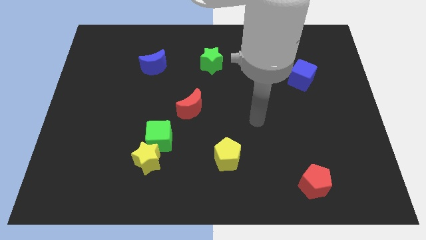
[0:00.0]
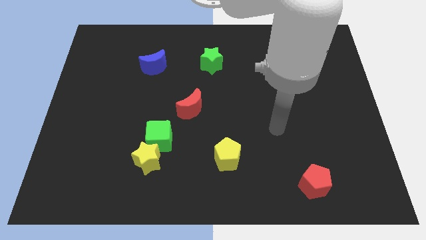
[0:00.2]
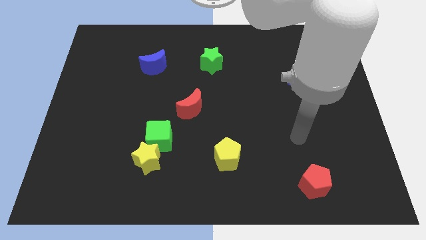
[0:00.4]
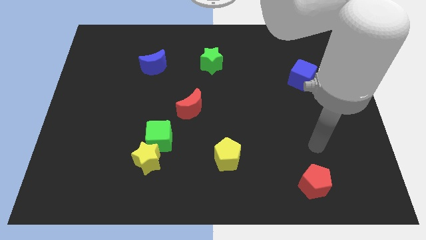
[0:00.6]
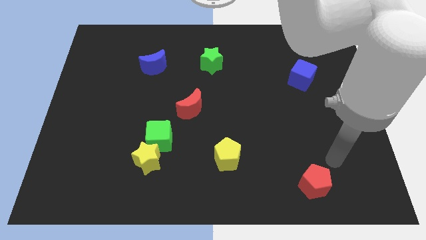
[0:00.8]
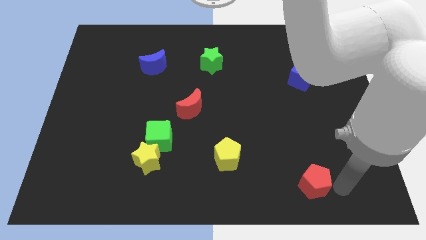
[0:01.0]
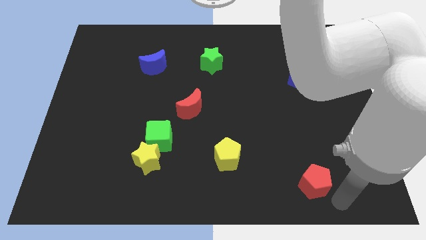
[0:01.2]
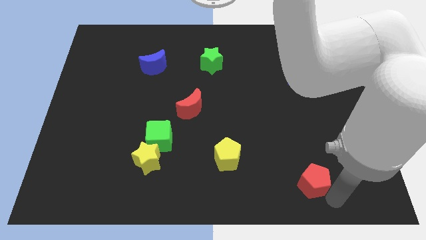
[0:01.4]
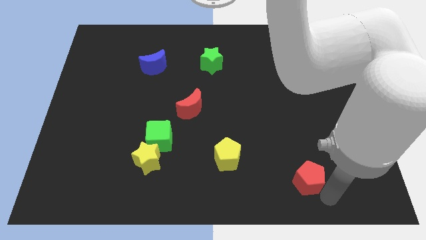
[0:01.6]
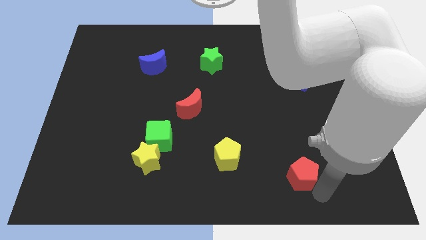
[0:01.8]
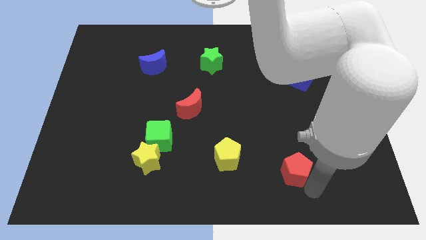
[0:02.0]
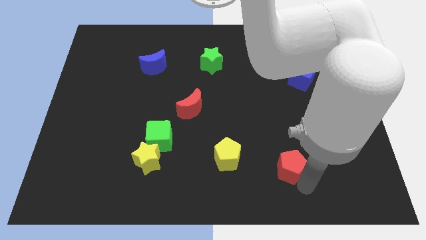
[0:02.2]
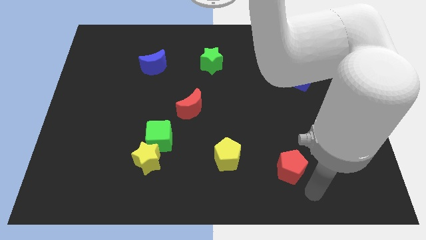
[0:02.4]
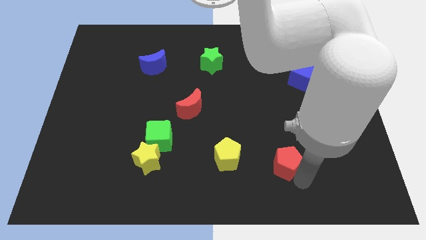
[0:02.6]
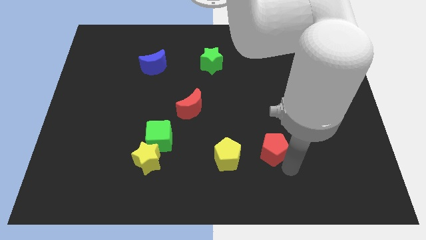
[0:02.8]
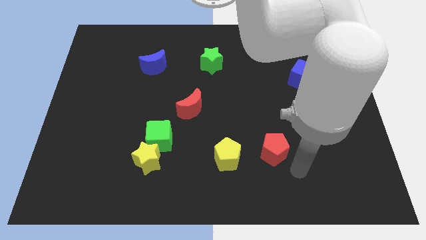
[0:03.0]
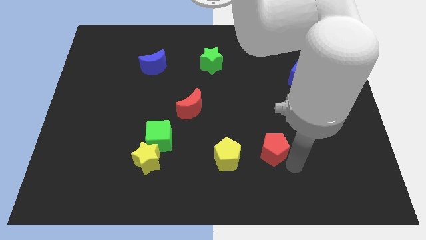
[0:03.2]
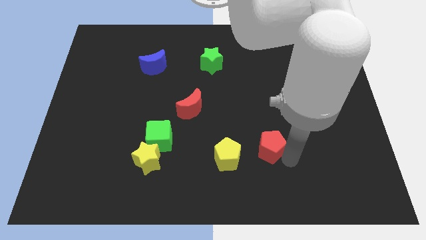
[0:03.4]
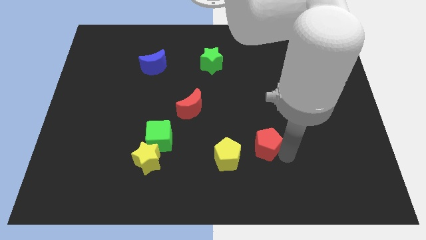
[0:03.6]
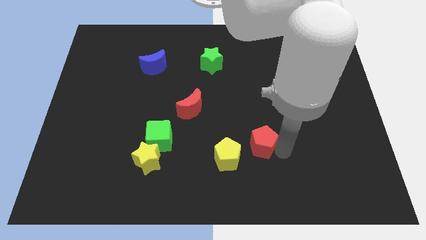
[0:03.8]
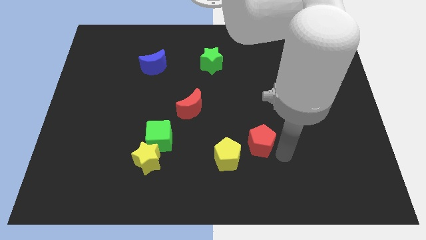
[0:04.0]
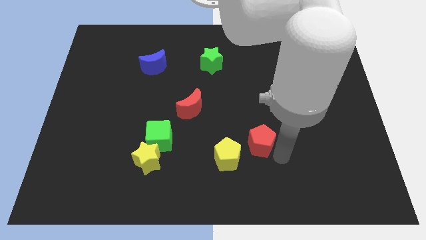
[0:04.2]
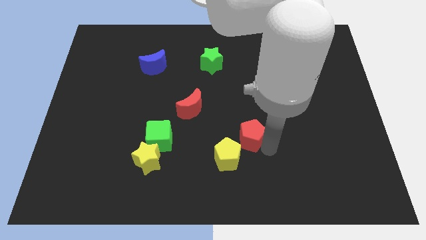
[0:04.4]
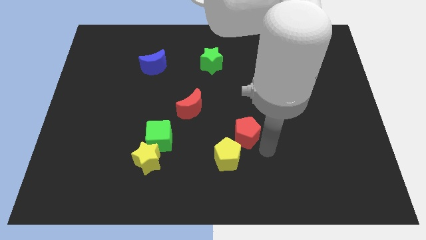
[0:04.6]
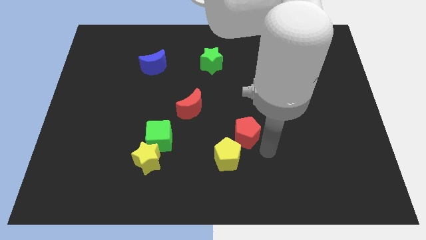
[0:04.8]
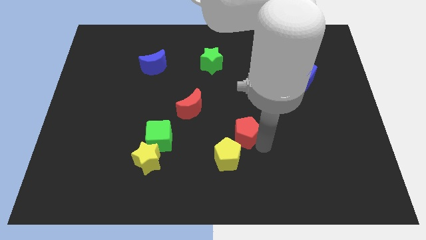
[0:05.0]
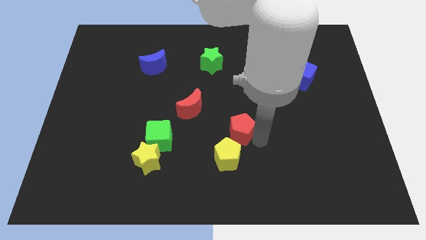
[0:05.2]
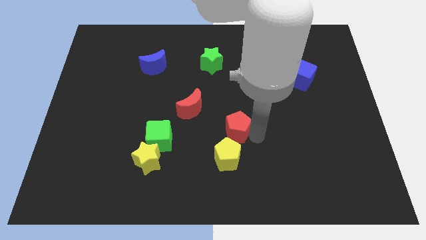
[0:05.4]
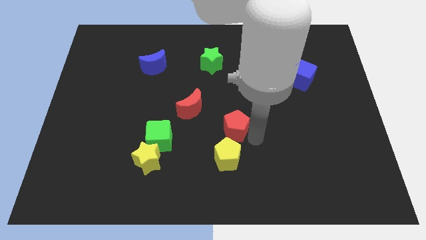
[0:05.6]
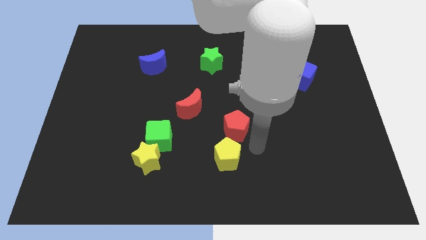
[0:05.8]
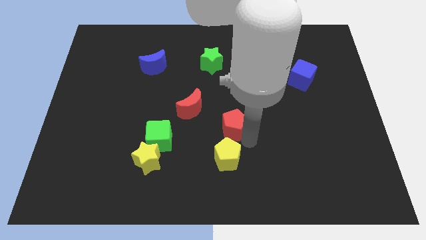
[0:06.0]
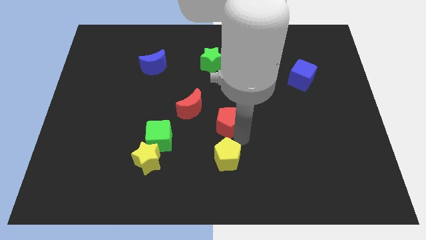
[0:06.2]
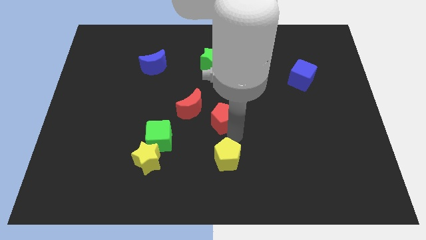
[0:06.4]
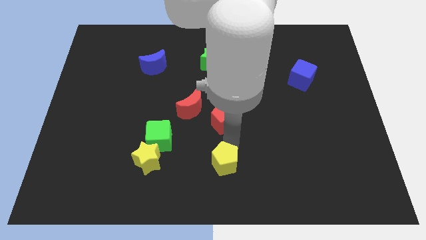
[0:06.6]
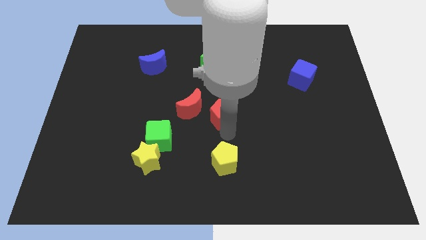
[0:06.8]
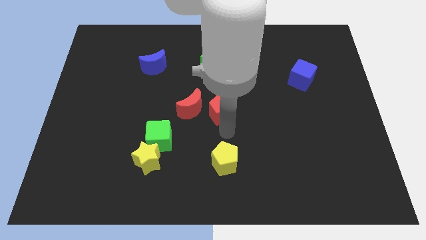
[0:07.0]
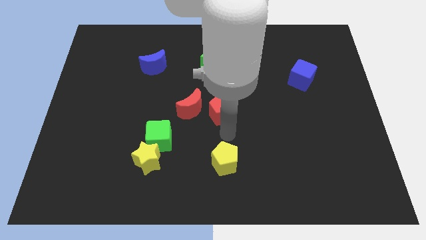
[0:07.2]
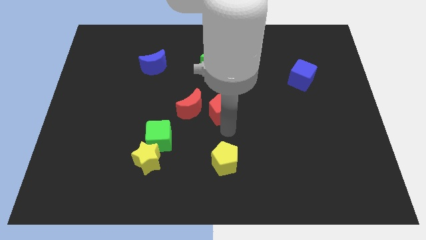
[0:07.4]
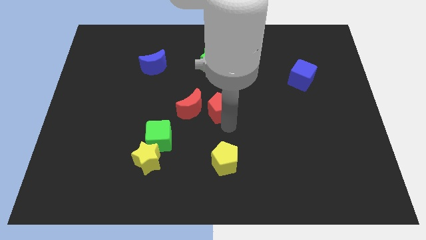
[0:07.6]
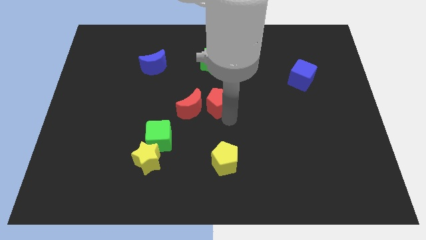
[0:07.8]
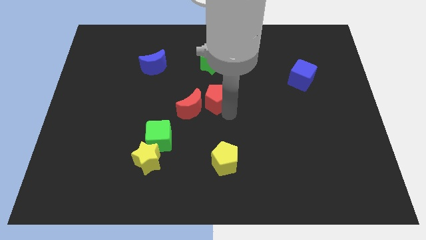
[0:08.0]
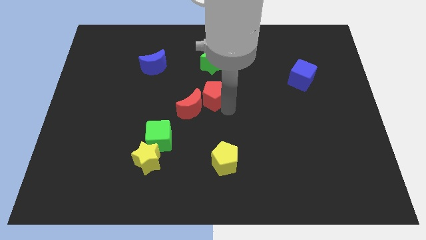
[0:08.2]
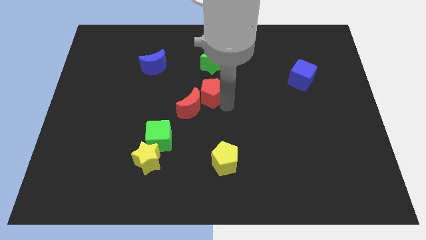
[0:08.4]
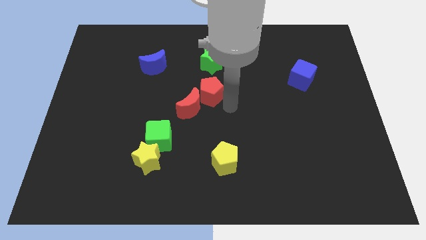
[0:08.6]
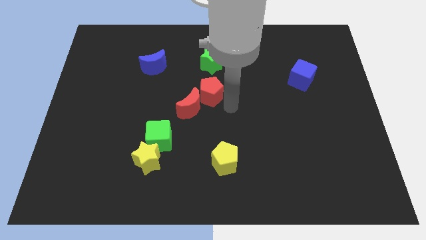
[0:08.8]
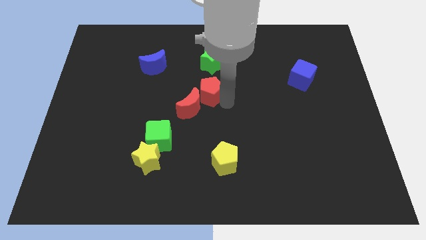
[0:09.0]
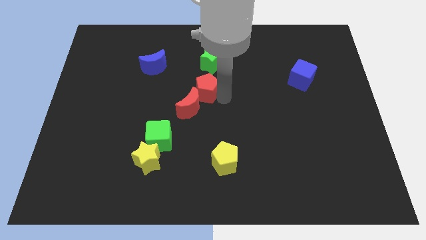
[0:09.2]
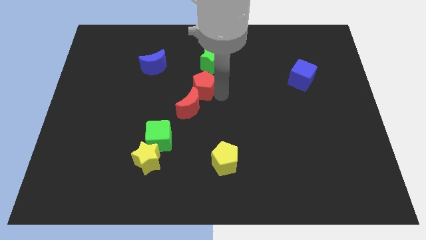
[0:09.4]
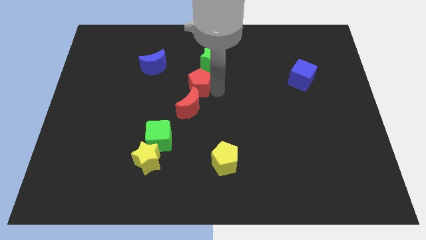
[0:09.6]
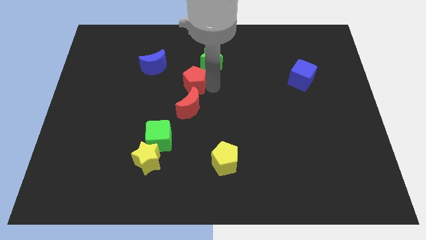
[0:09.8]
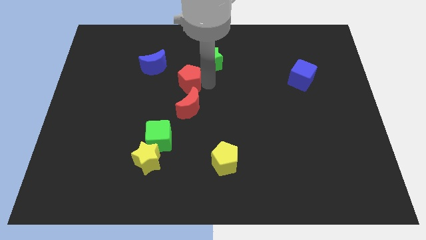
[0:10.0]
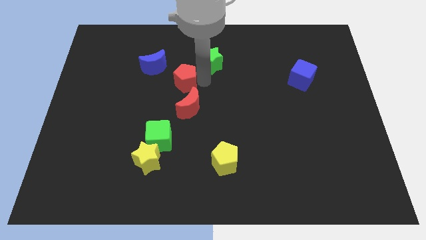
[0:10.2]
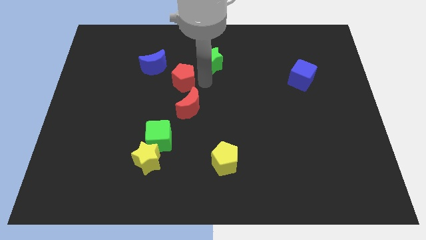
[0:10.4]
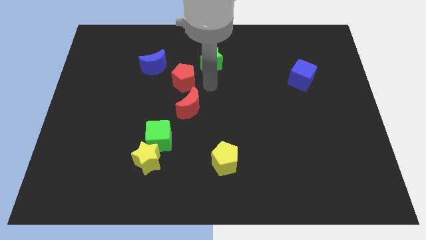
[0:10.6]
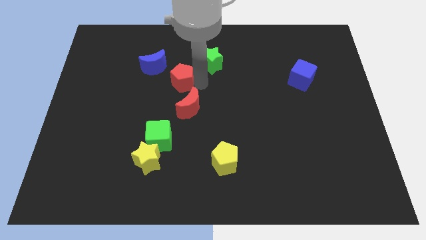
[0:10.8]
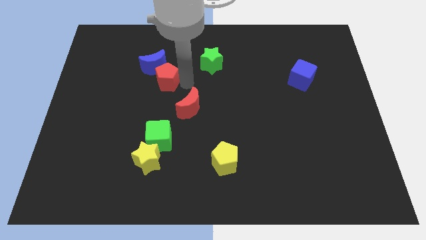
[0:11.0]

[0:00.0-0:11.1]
push the red pentagon towards the blue moon

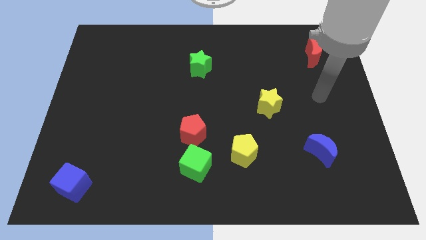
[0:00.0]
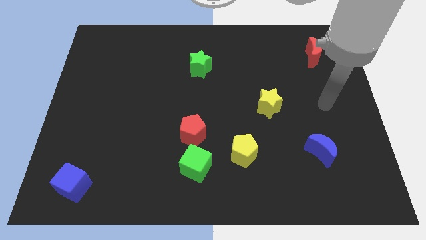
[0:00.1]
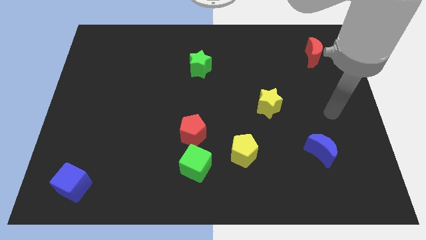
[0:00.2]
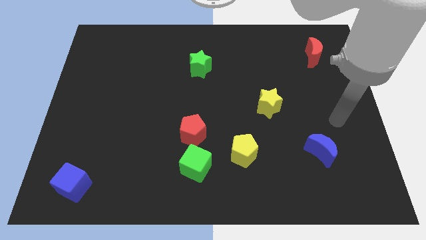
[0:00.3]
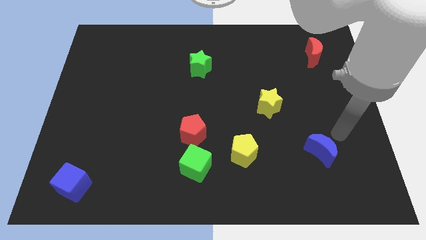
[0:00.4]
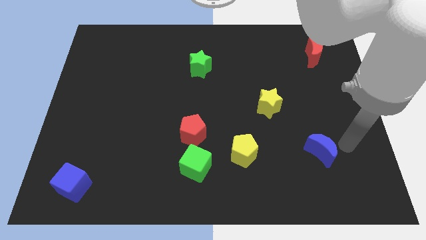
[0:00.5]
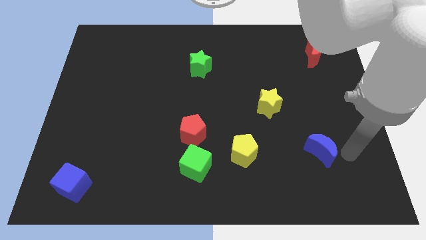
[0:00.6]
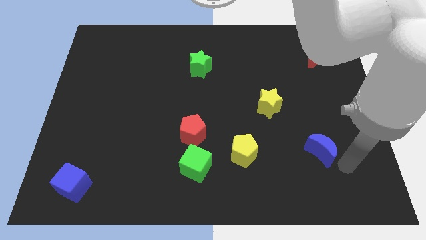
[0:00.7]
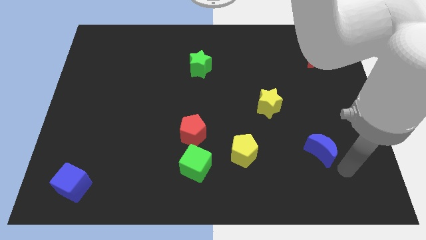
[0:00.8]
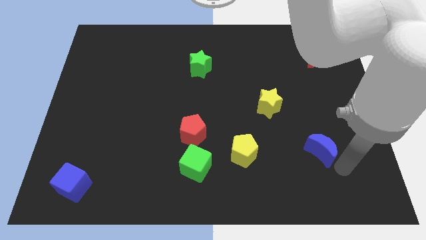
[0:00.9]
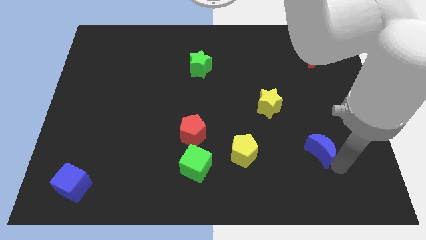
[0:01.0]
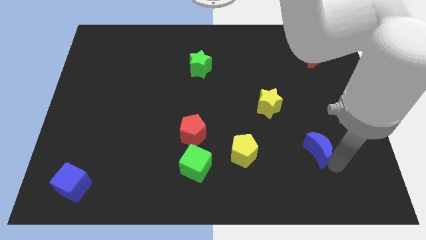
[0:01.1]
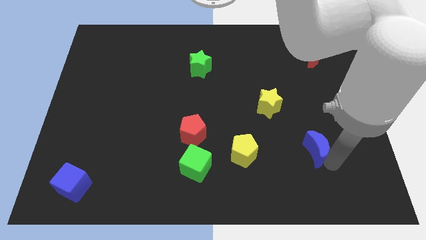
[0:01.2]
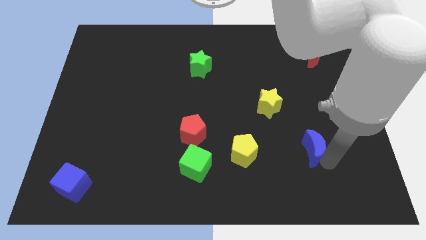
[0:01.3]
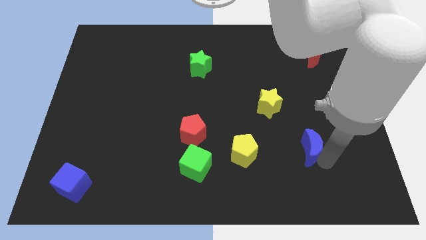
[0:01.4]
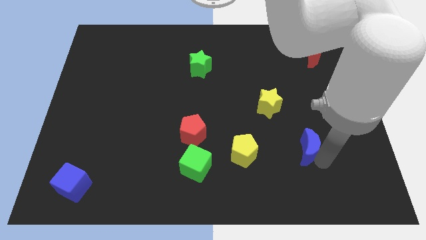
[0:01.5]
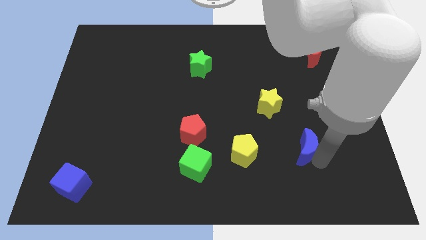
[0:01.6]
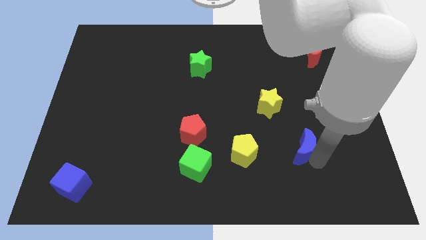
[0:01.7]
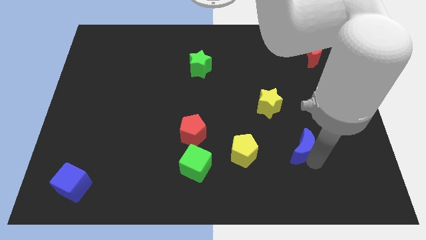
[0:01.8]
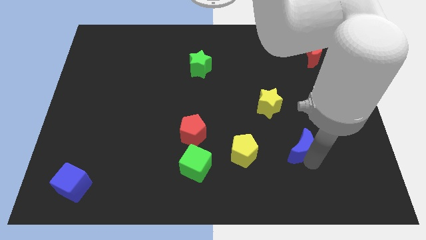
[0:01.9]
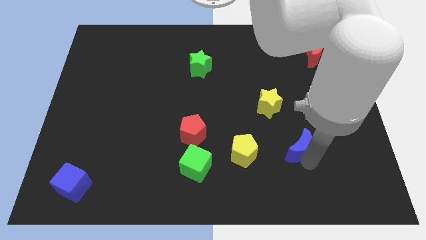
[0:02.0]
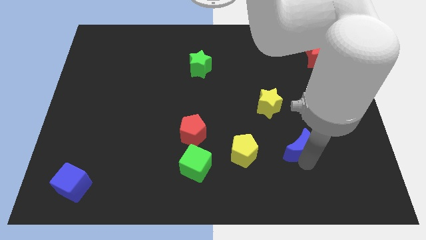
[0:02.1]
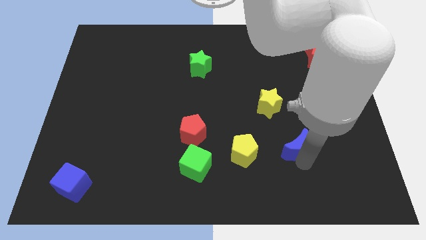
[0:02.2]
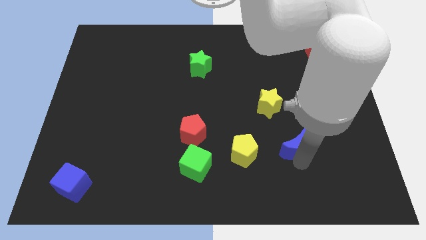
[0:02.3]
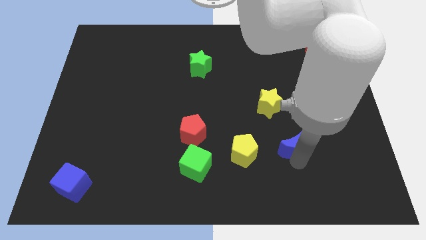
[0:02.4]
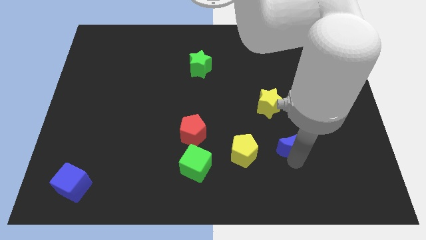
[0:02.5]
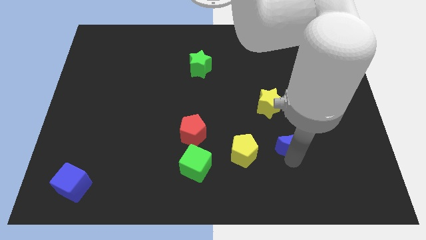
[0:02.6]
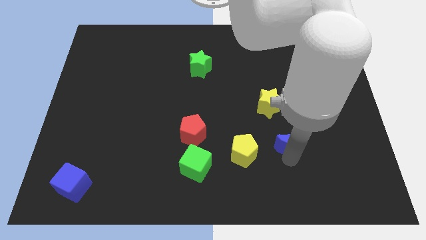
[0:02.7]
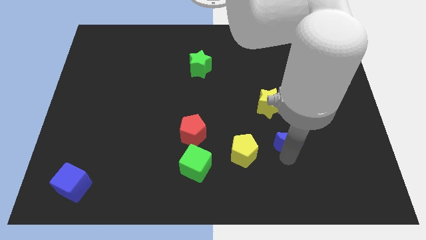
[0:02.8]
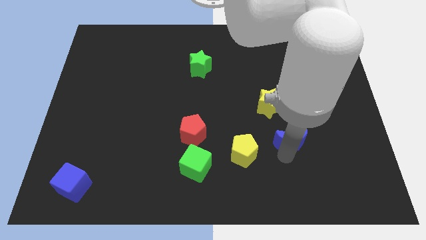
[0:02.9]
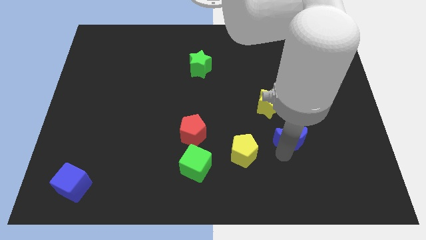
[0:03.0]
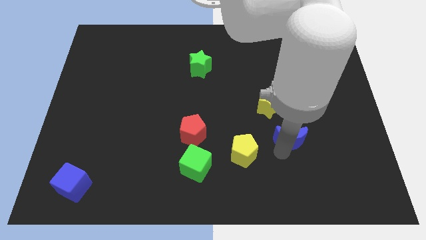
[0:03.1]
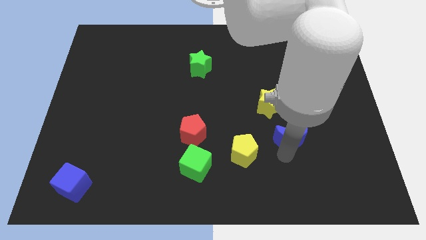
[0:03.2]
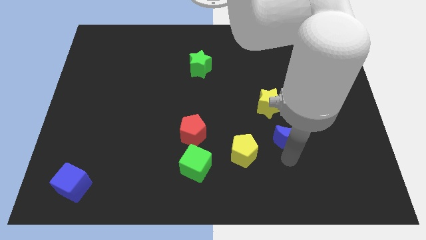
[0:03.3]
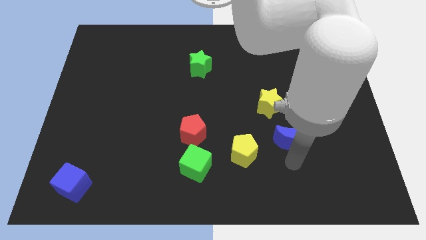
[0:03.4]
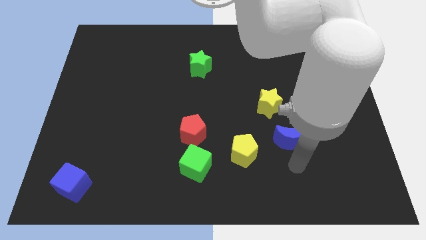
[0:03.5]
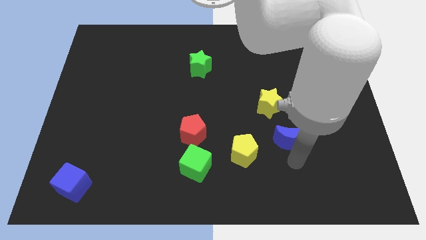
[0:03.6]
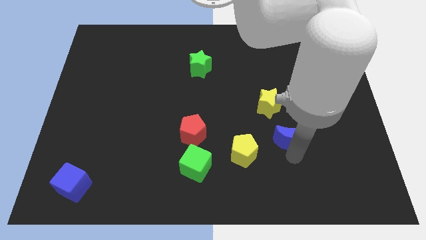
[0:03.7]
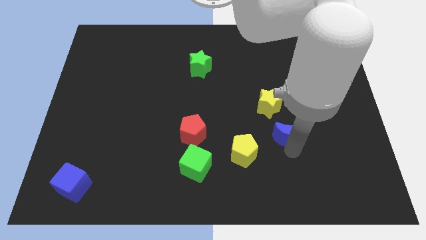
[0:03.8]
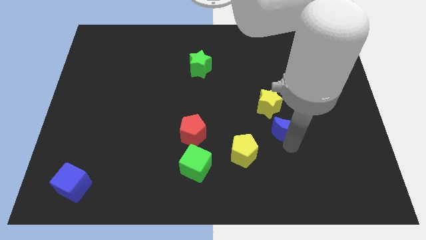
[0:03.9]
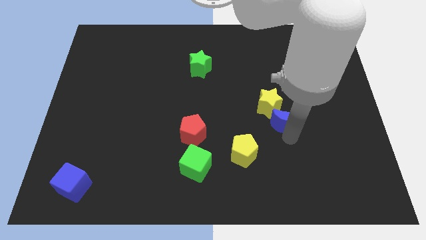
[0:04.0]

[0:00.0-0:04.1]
put the blue moon towards the yellow star
